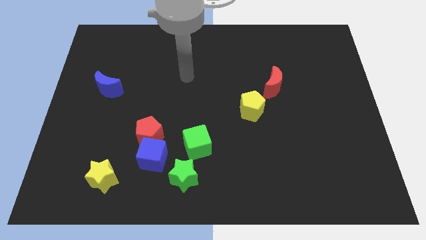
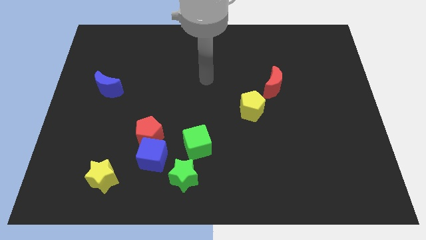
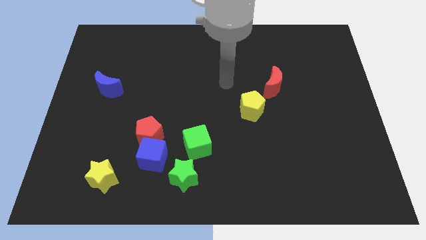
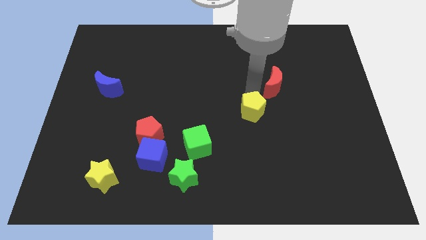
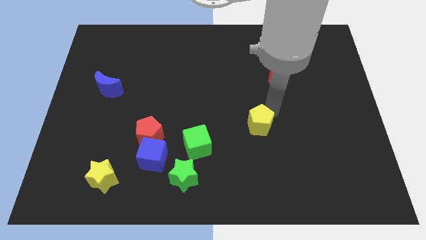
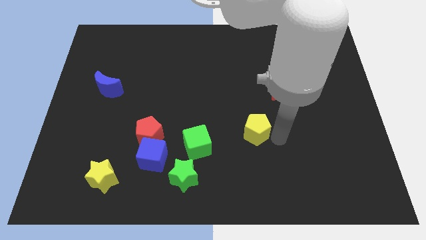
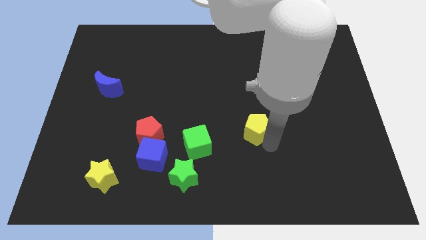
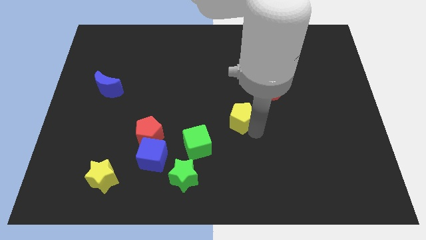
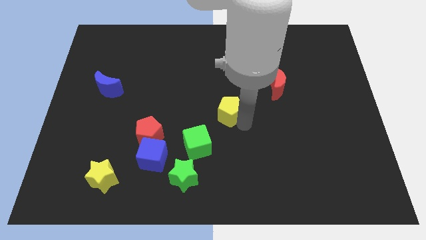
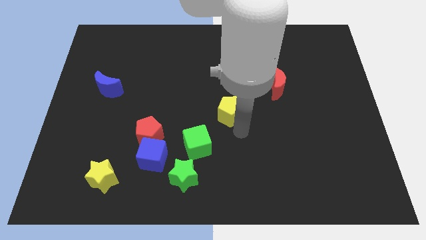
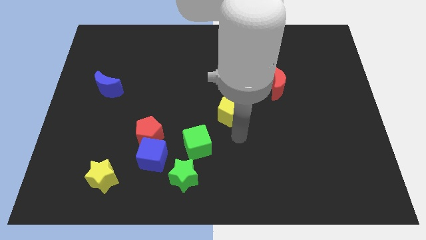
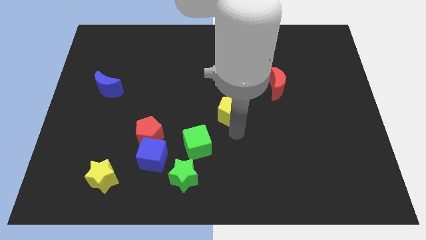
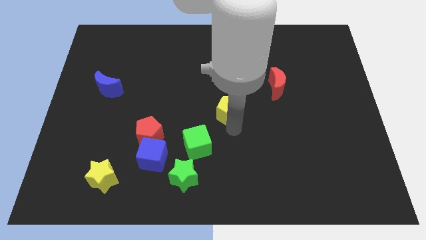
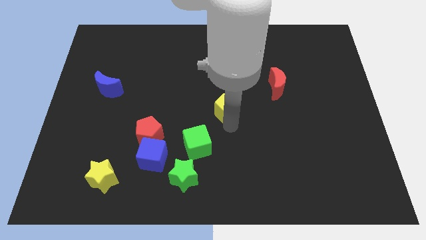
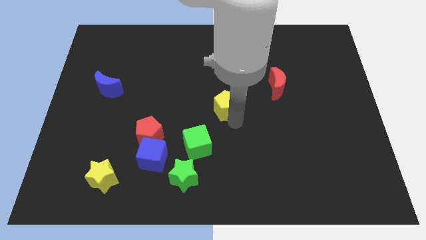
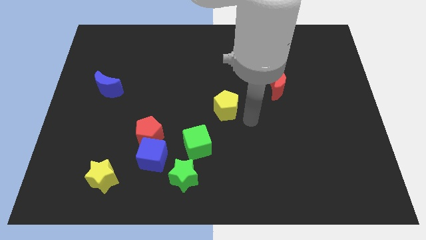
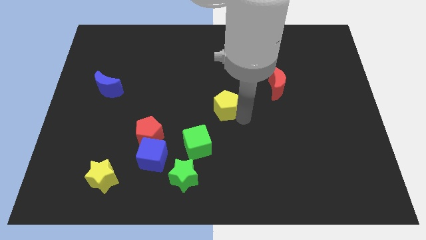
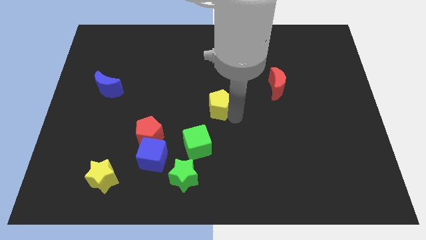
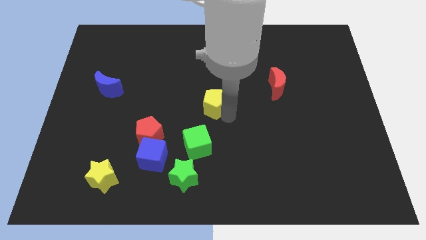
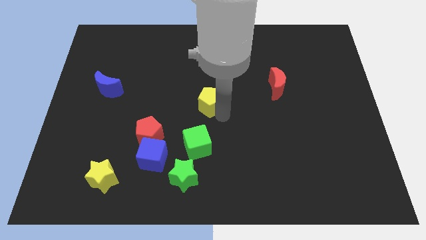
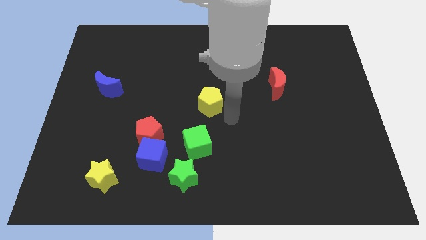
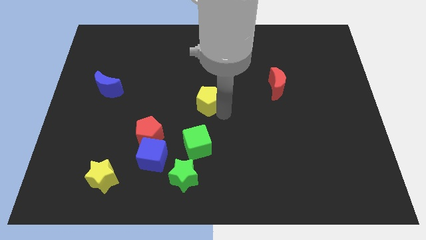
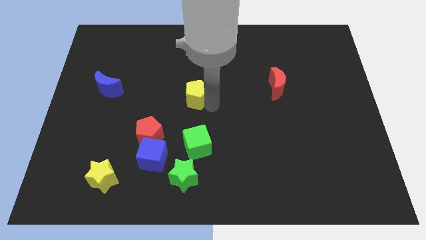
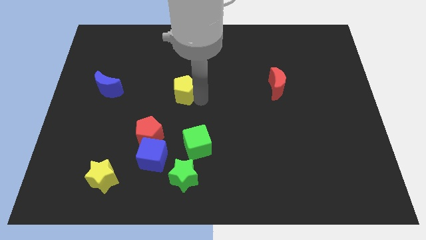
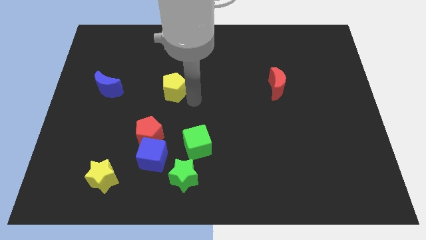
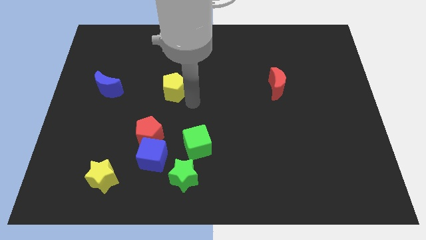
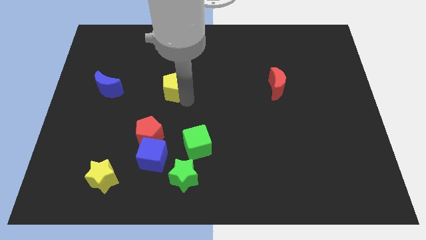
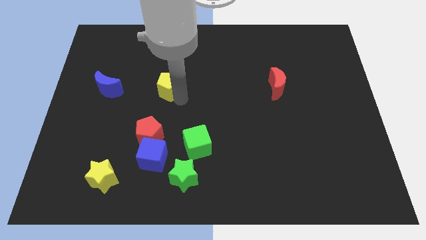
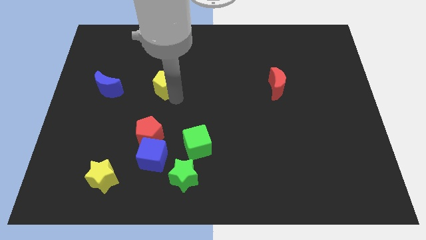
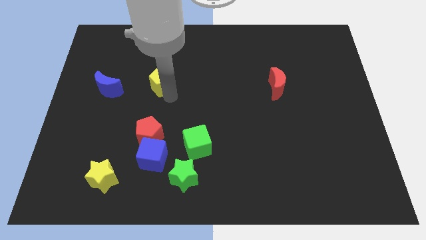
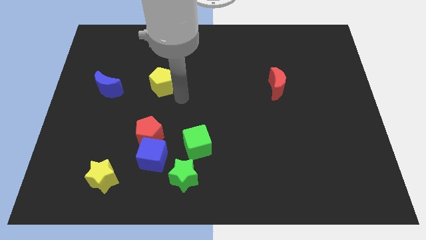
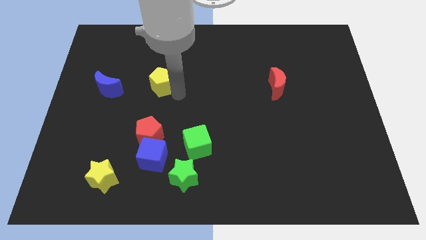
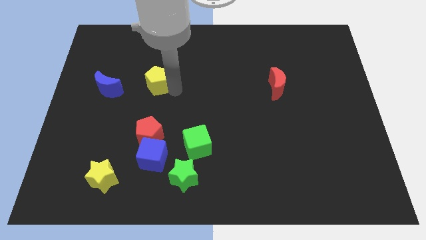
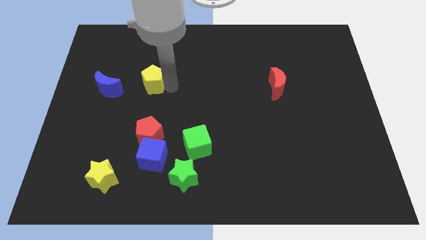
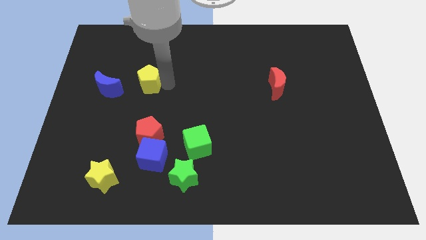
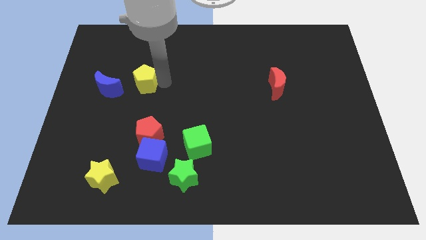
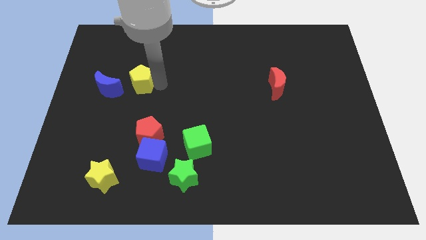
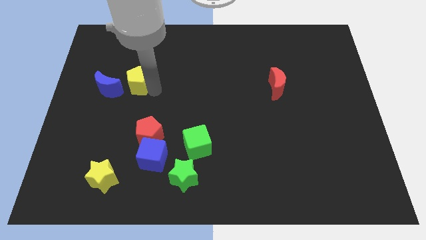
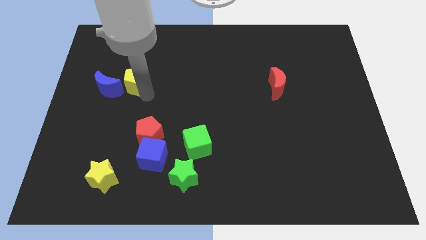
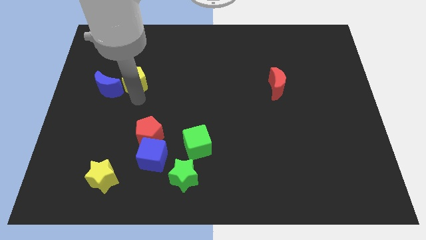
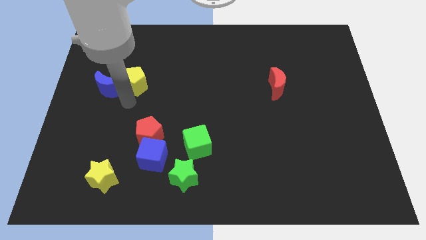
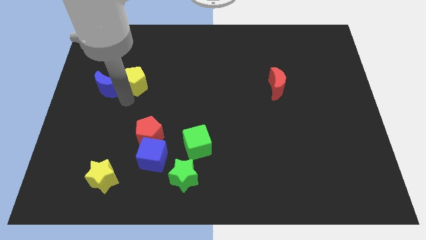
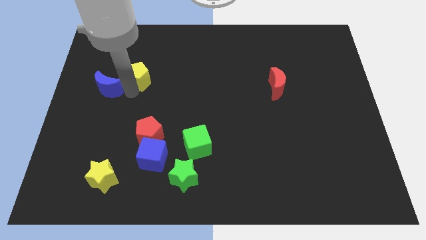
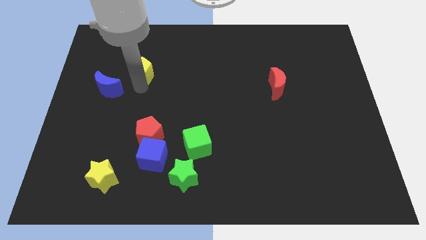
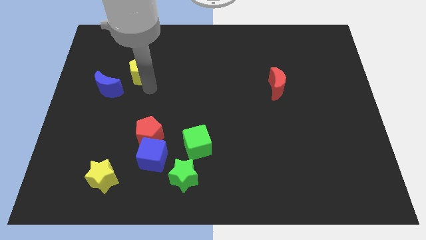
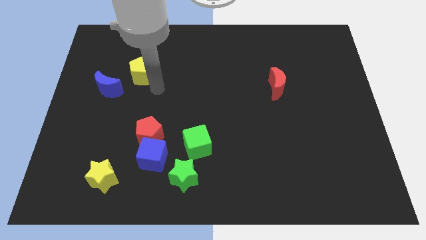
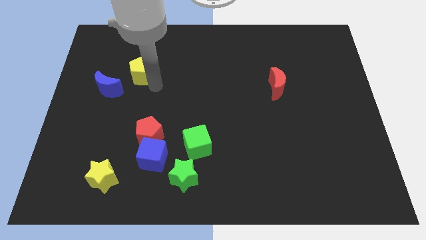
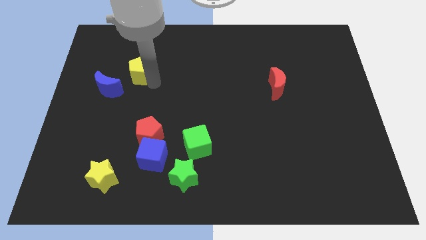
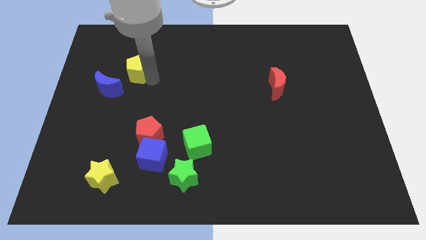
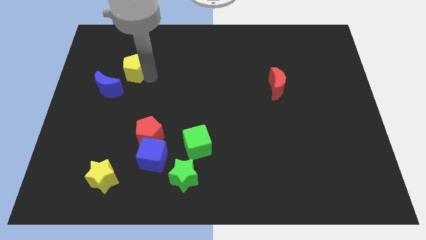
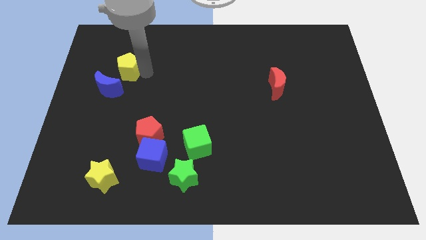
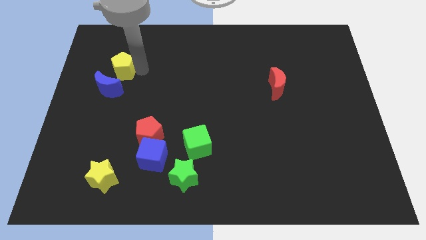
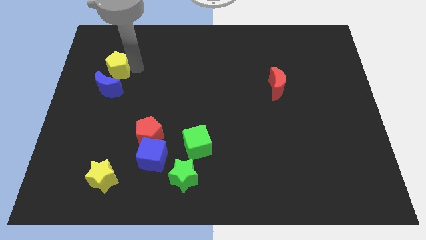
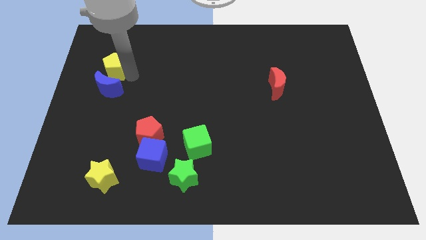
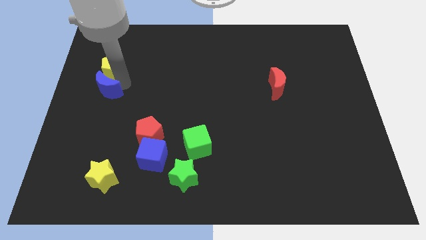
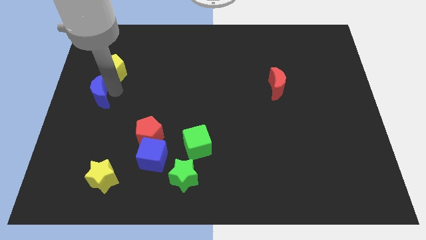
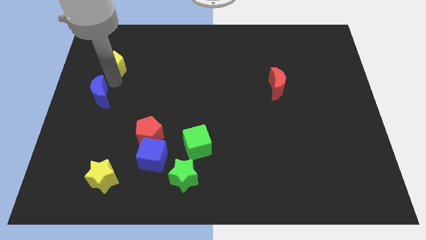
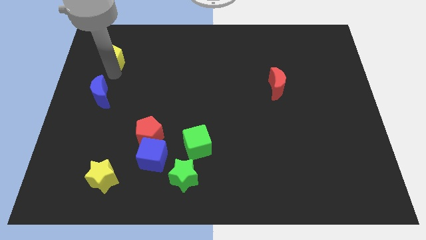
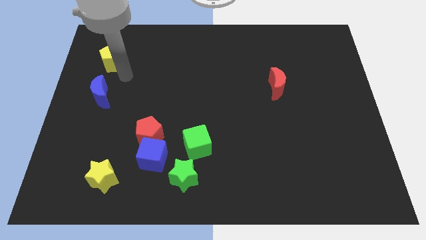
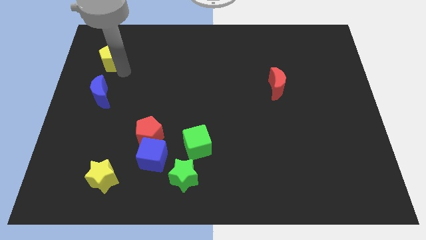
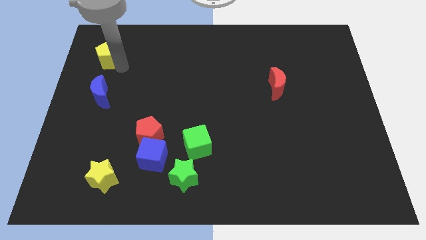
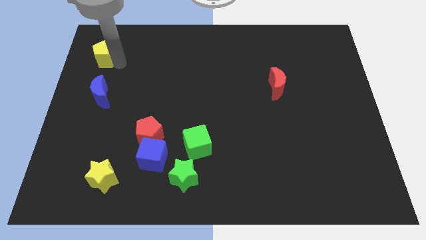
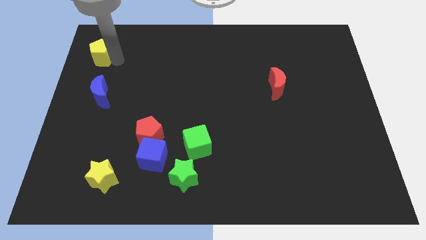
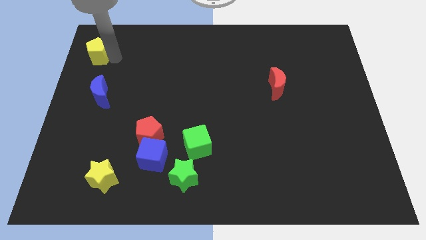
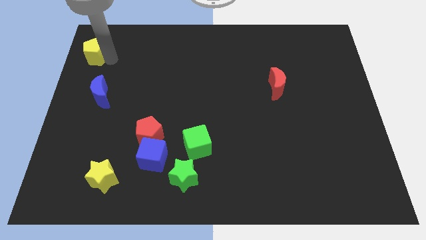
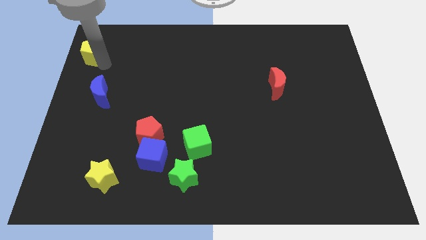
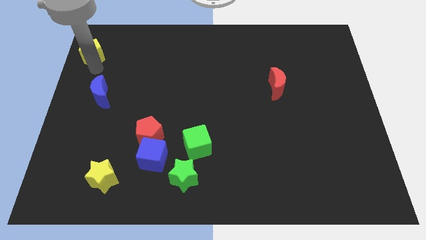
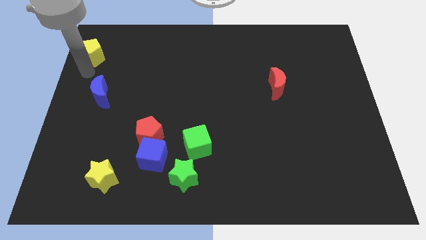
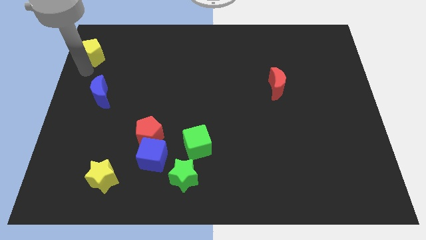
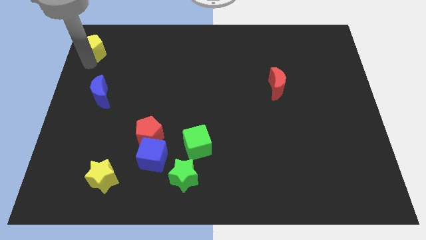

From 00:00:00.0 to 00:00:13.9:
put the yellow pentagon to the top left corner
